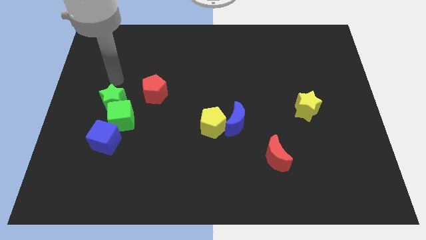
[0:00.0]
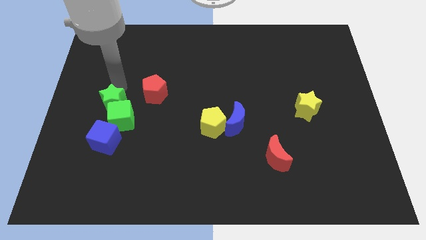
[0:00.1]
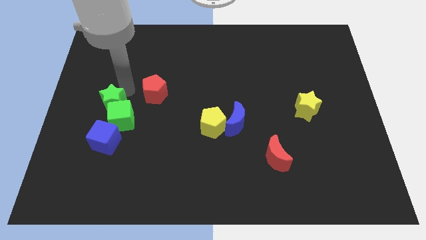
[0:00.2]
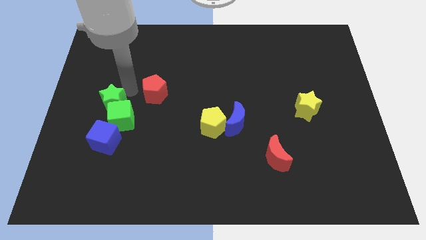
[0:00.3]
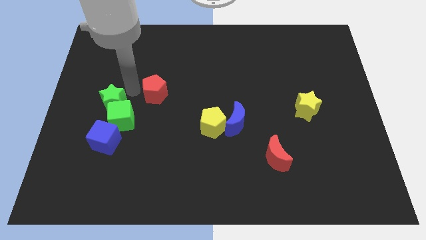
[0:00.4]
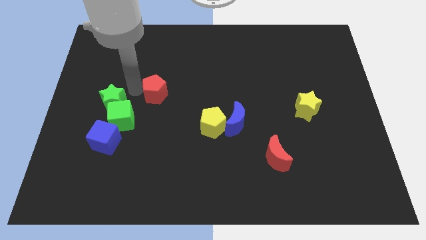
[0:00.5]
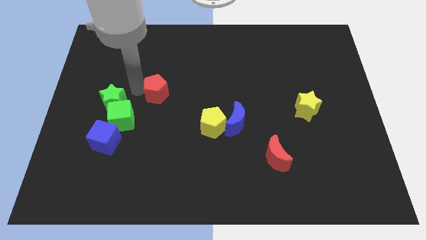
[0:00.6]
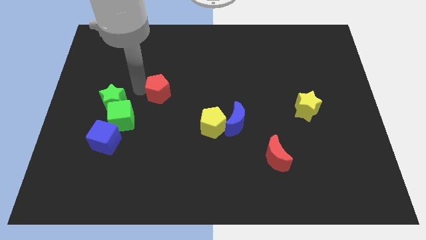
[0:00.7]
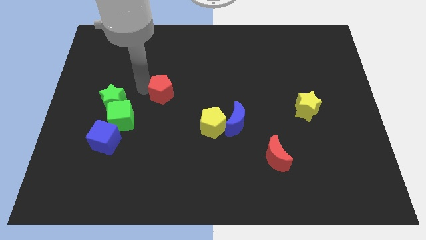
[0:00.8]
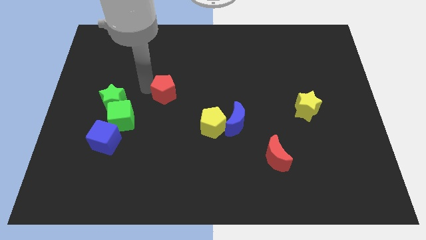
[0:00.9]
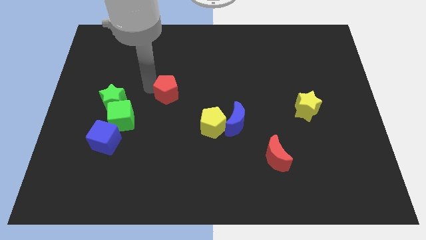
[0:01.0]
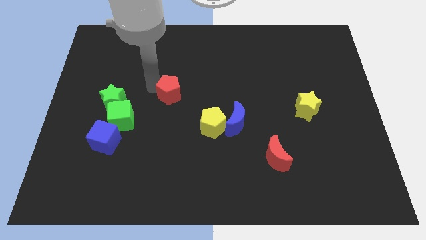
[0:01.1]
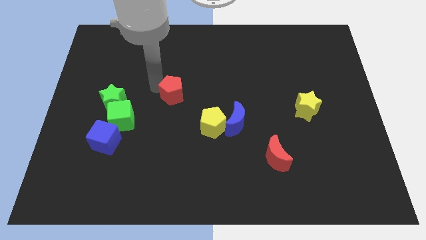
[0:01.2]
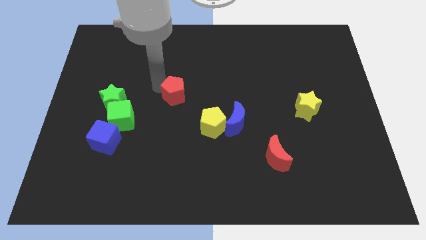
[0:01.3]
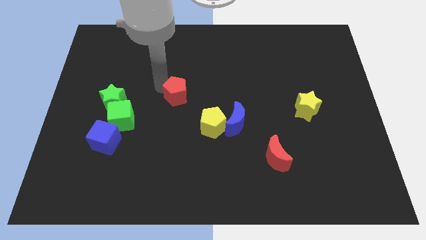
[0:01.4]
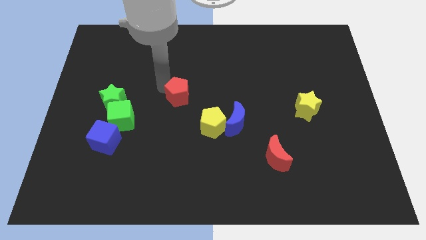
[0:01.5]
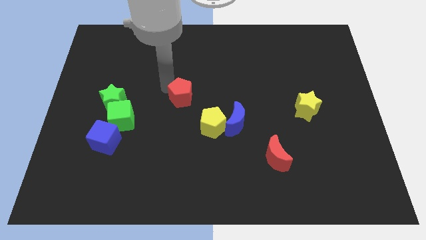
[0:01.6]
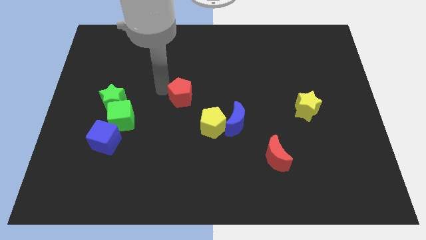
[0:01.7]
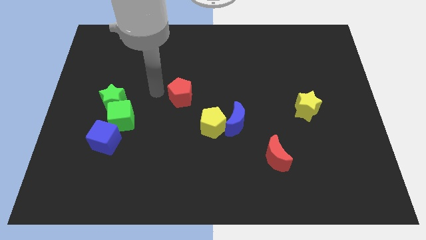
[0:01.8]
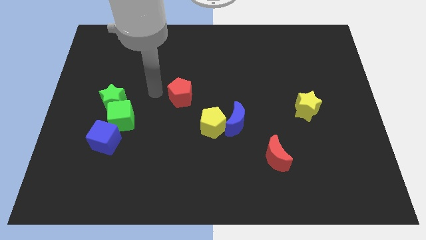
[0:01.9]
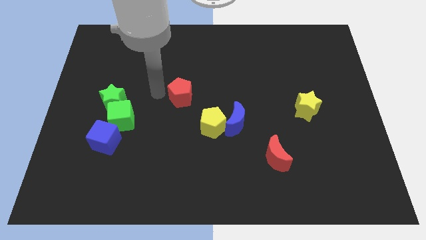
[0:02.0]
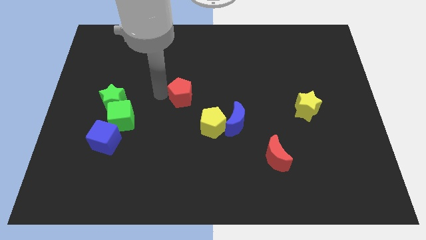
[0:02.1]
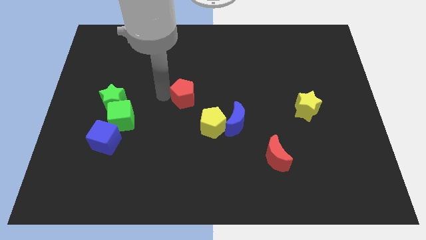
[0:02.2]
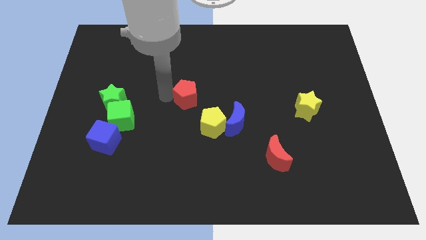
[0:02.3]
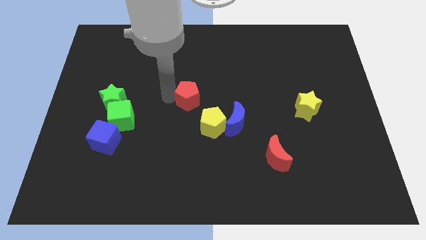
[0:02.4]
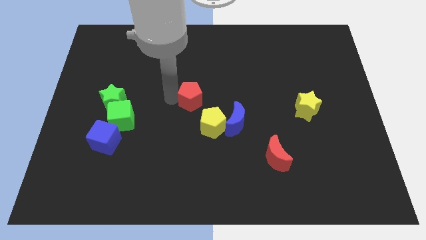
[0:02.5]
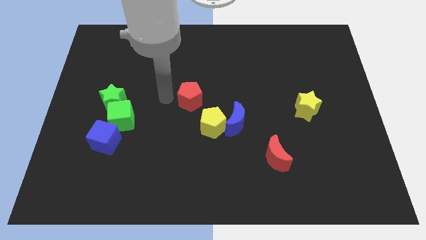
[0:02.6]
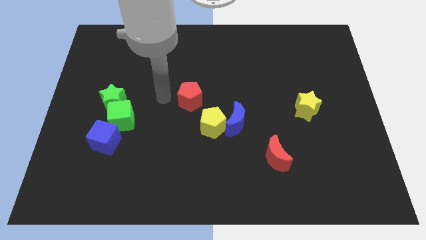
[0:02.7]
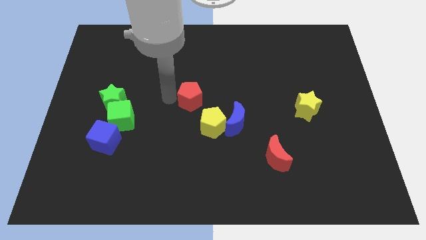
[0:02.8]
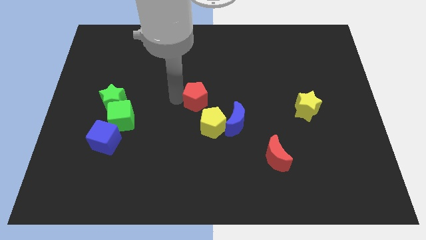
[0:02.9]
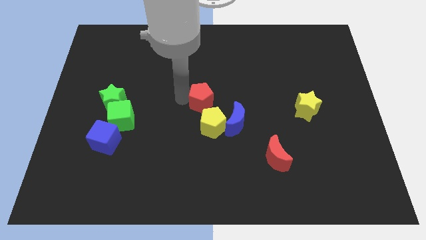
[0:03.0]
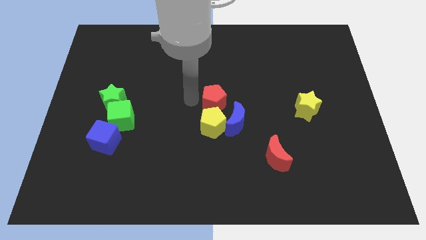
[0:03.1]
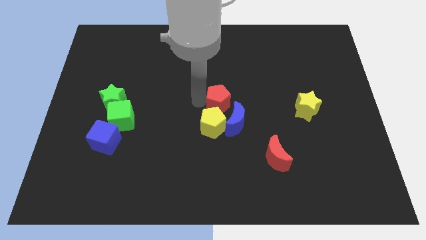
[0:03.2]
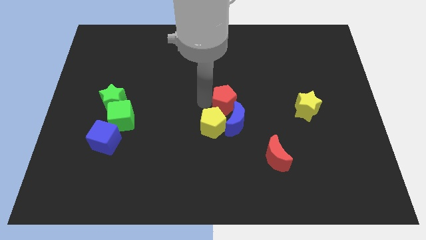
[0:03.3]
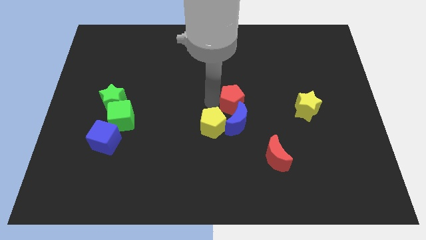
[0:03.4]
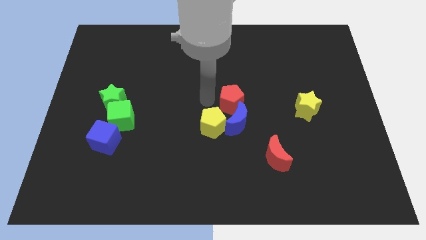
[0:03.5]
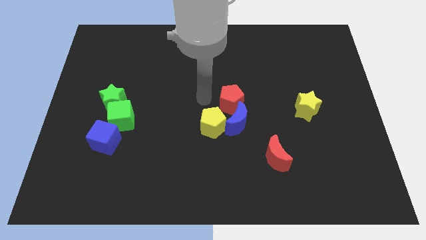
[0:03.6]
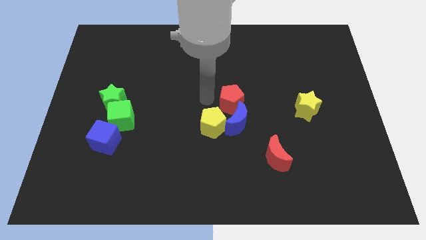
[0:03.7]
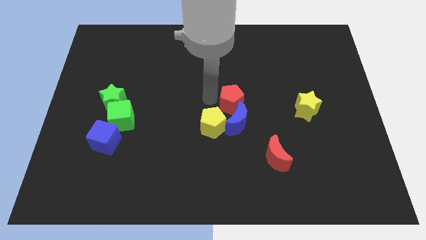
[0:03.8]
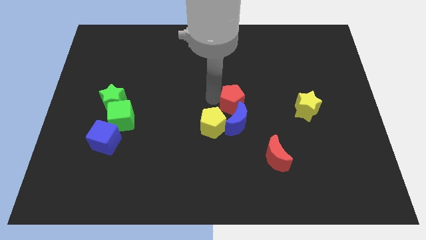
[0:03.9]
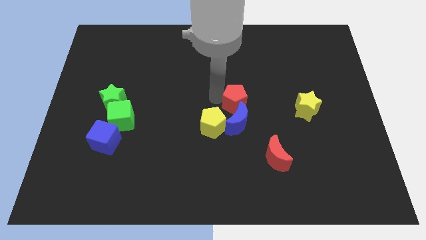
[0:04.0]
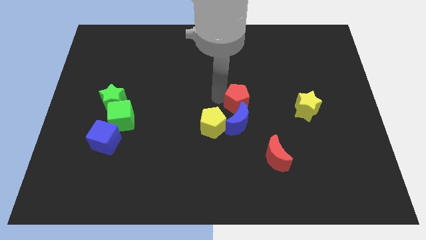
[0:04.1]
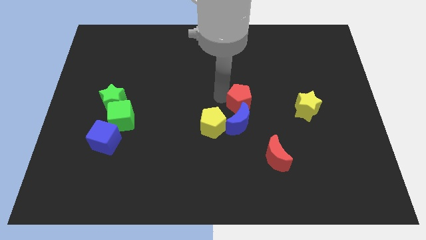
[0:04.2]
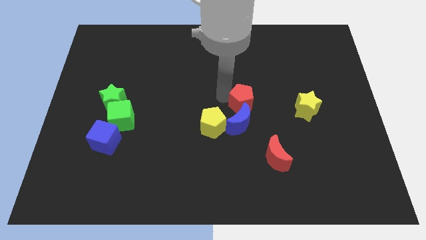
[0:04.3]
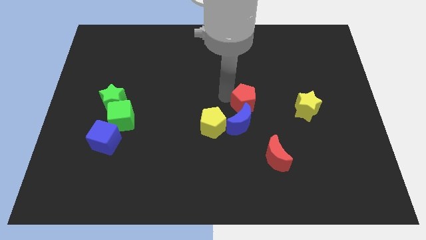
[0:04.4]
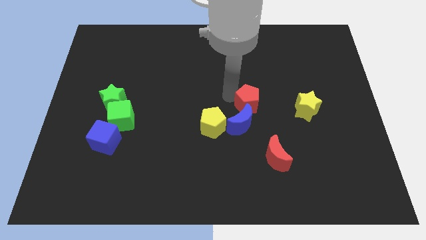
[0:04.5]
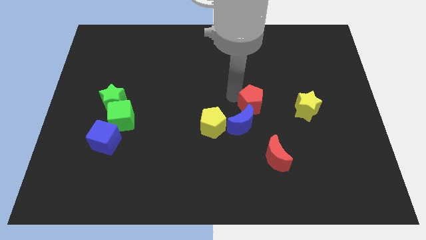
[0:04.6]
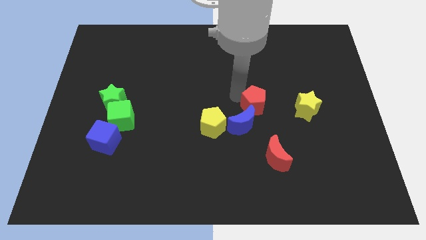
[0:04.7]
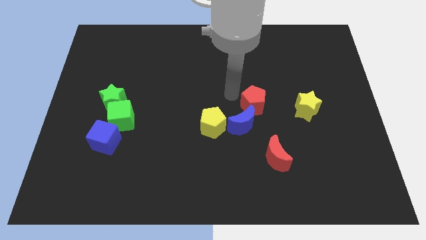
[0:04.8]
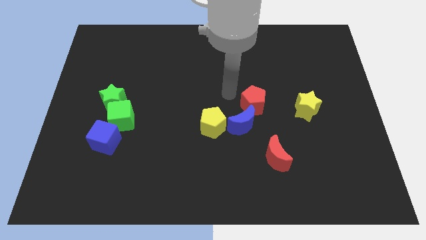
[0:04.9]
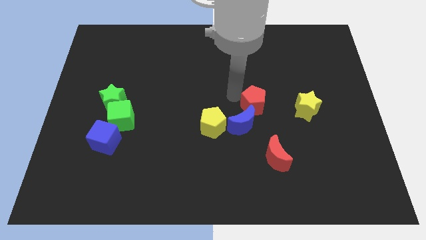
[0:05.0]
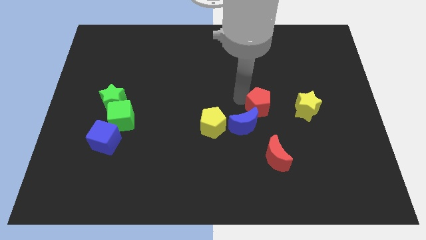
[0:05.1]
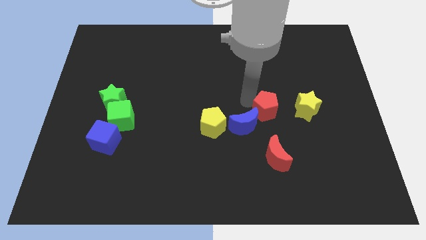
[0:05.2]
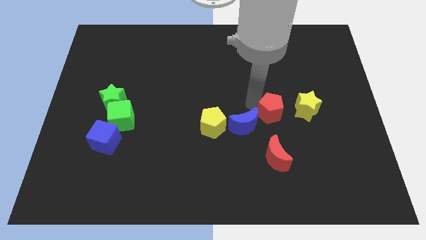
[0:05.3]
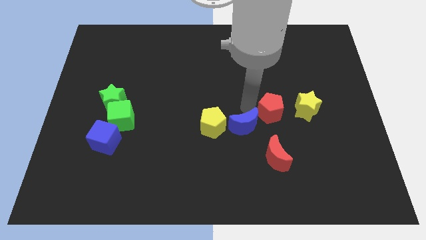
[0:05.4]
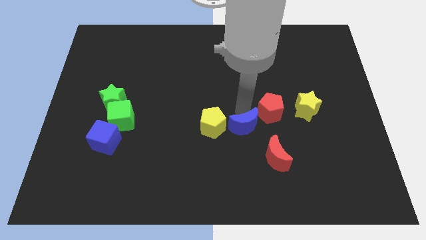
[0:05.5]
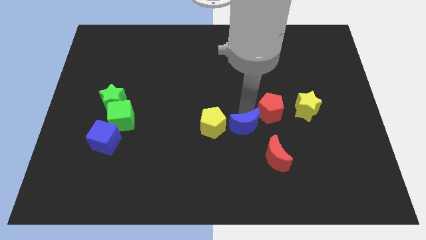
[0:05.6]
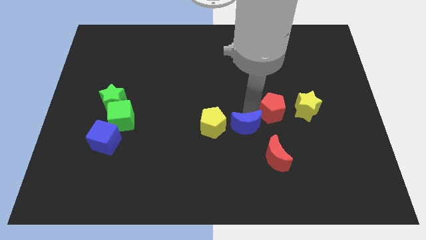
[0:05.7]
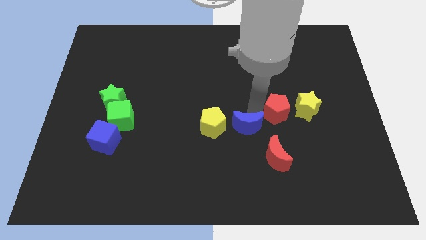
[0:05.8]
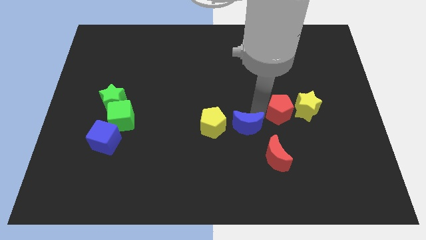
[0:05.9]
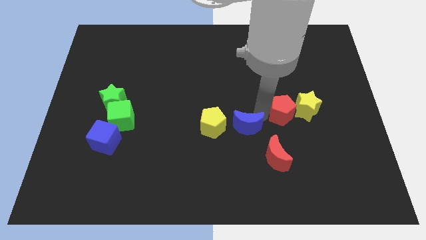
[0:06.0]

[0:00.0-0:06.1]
push the red pentagon close to the yellow star

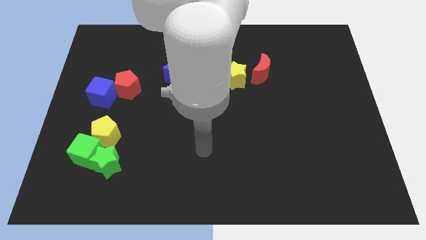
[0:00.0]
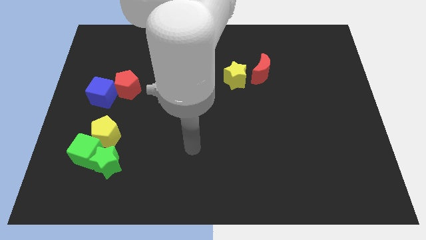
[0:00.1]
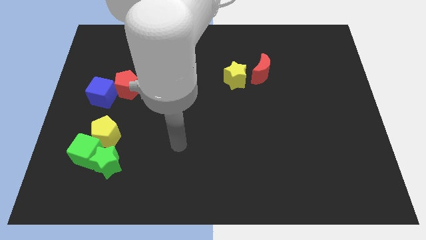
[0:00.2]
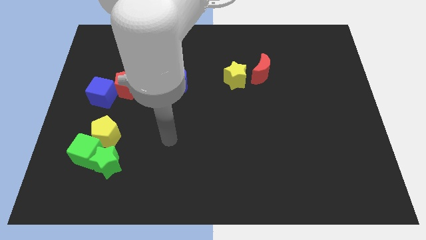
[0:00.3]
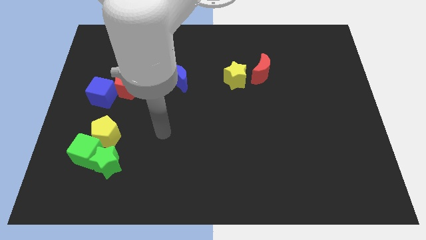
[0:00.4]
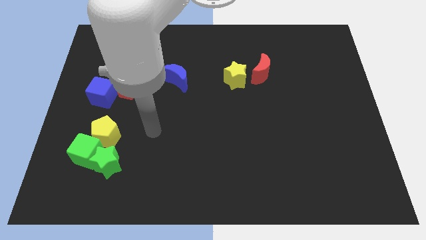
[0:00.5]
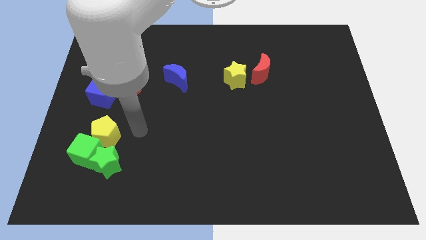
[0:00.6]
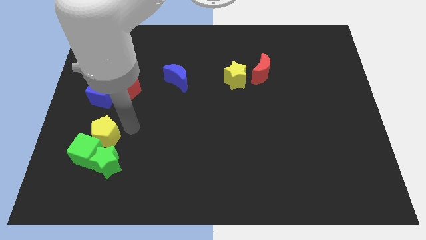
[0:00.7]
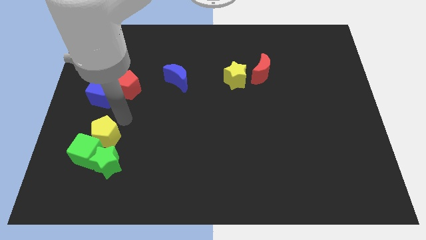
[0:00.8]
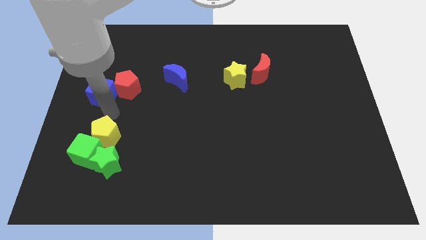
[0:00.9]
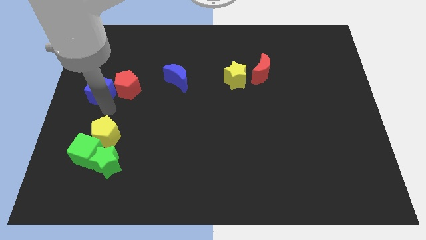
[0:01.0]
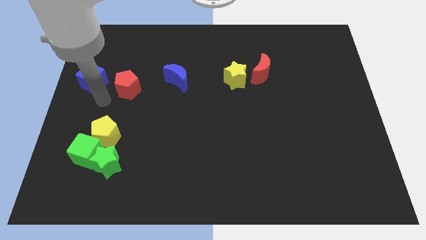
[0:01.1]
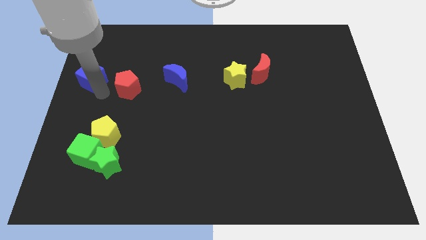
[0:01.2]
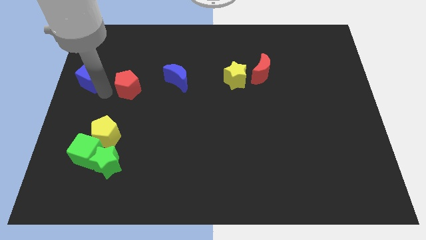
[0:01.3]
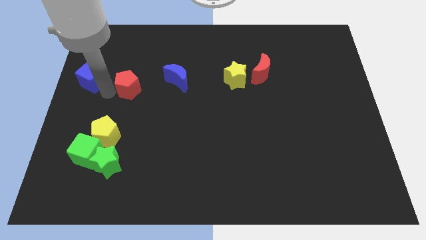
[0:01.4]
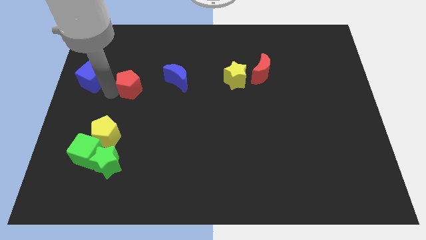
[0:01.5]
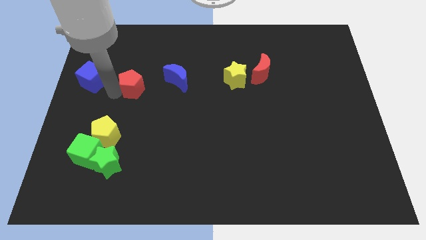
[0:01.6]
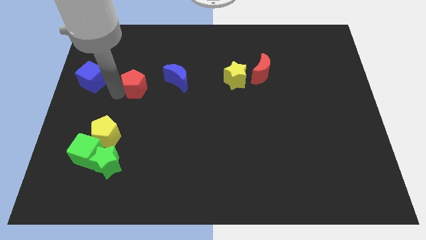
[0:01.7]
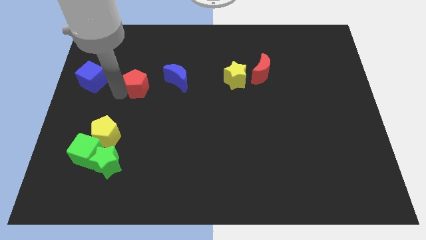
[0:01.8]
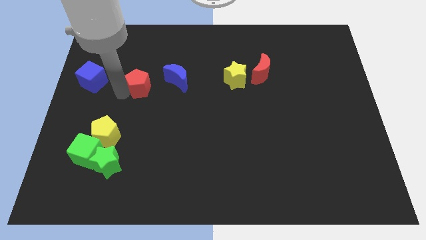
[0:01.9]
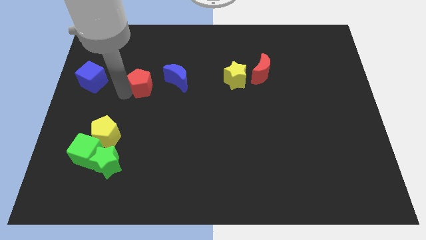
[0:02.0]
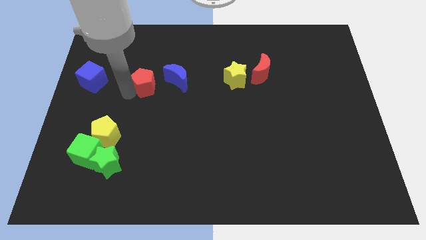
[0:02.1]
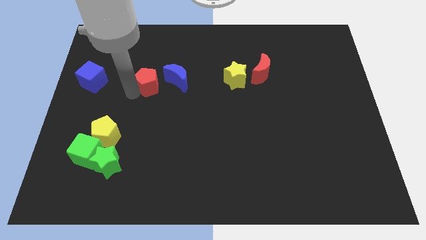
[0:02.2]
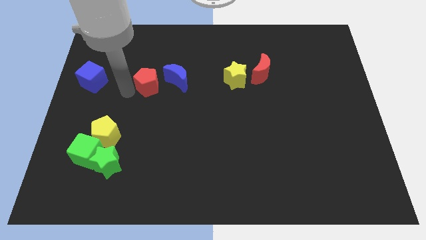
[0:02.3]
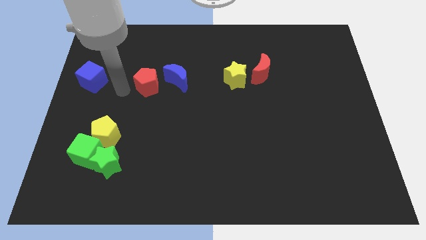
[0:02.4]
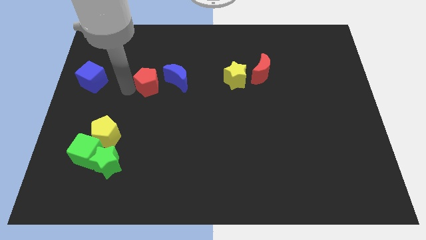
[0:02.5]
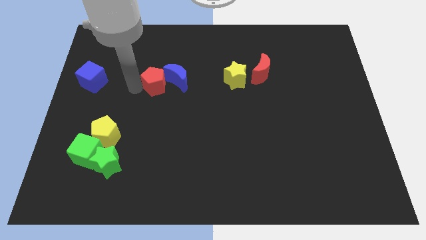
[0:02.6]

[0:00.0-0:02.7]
slide the red pentagon to the blue moon
